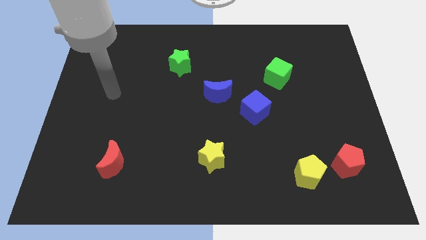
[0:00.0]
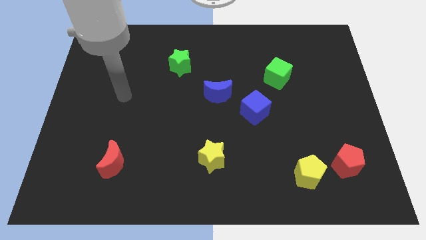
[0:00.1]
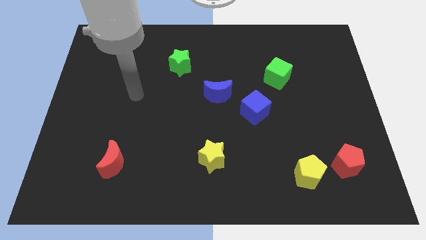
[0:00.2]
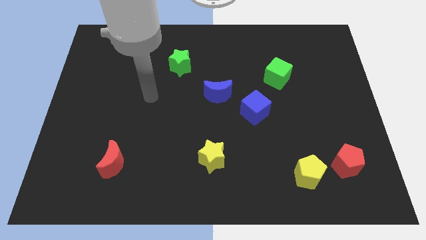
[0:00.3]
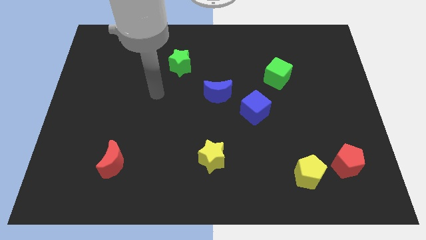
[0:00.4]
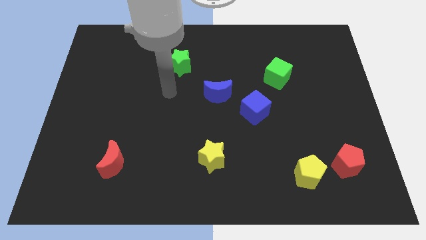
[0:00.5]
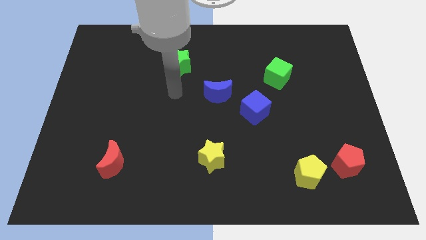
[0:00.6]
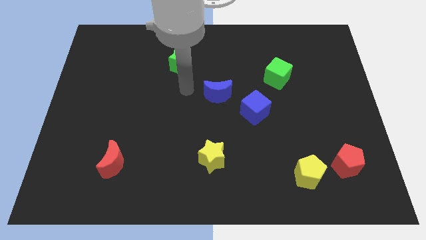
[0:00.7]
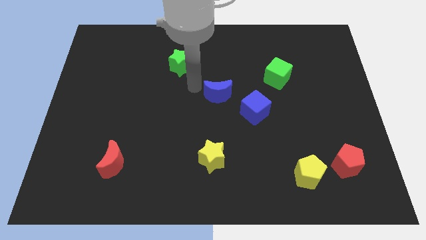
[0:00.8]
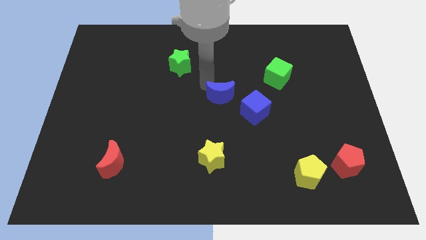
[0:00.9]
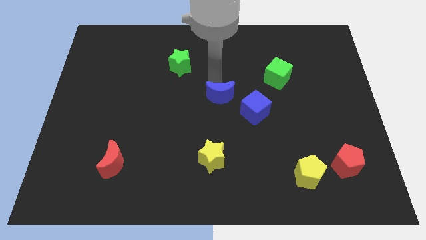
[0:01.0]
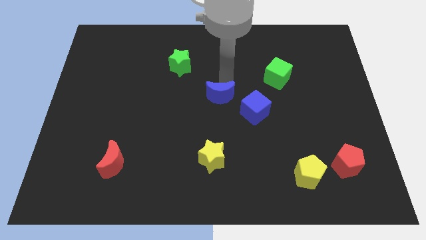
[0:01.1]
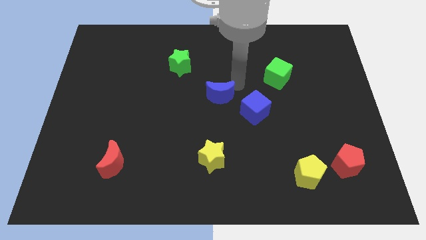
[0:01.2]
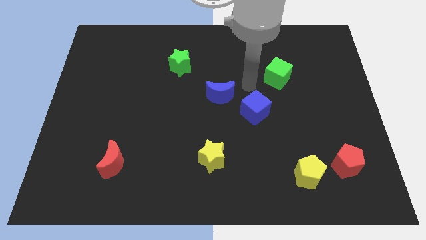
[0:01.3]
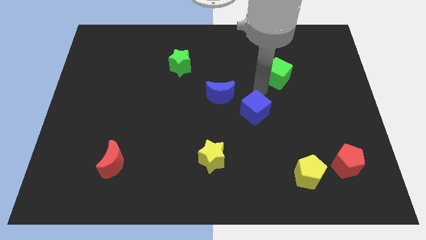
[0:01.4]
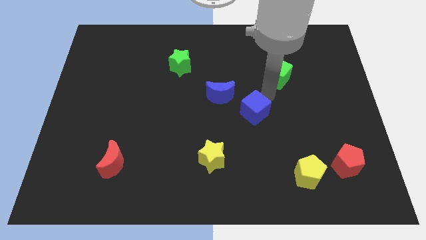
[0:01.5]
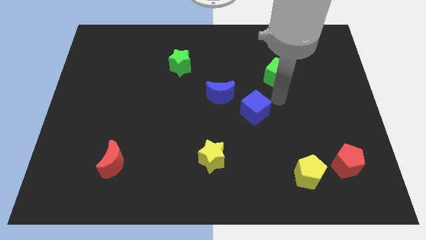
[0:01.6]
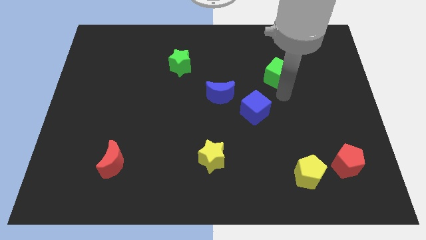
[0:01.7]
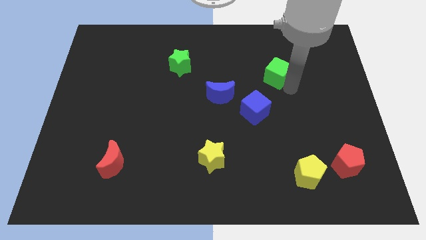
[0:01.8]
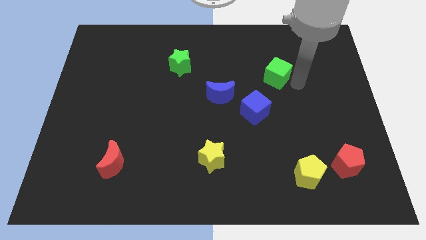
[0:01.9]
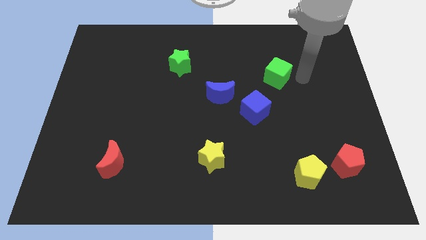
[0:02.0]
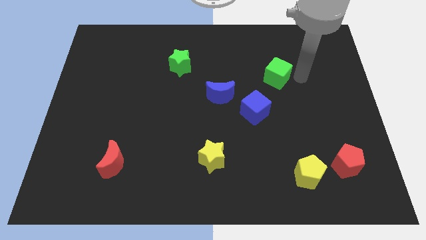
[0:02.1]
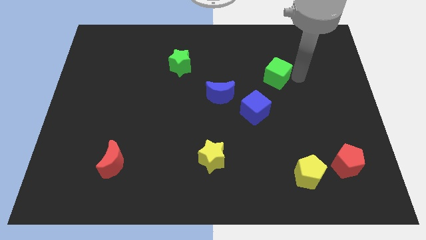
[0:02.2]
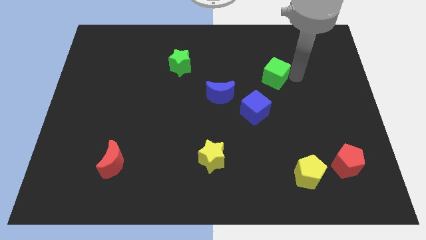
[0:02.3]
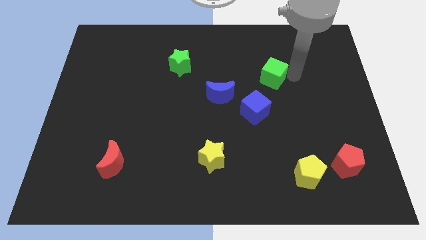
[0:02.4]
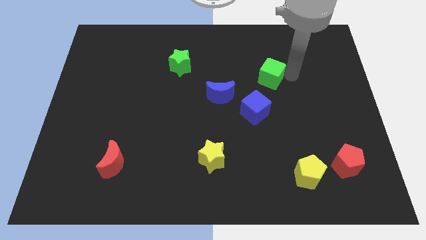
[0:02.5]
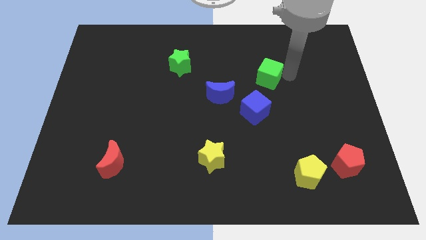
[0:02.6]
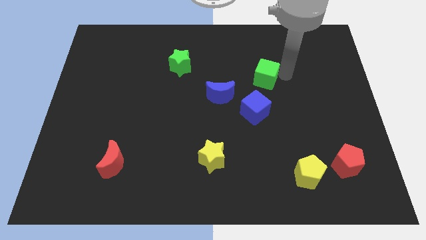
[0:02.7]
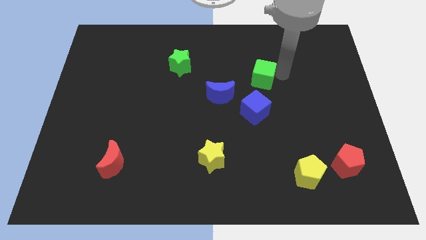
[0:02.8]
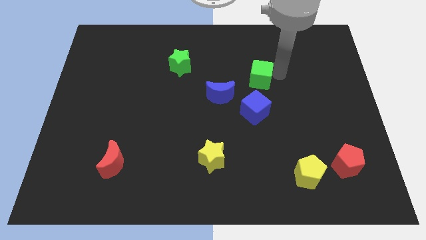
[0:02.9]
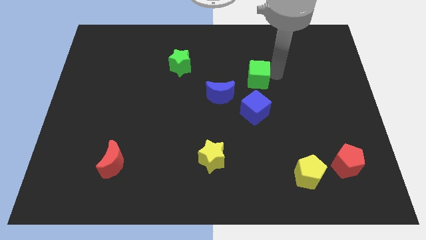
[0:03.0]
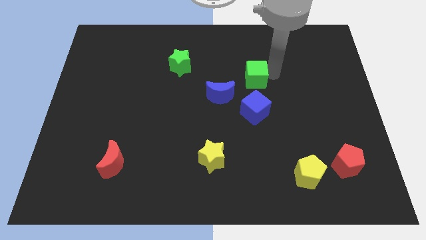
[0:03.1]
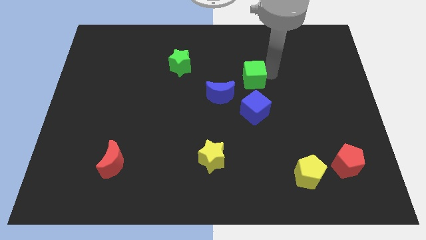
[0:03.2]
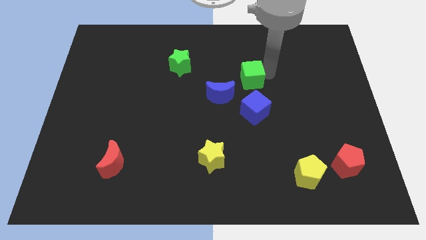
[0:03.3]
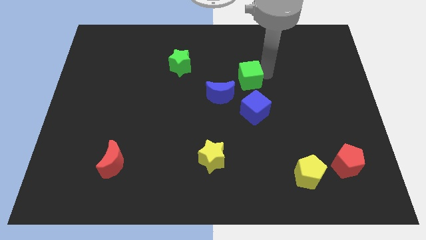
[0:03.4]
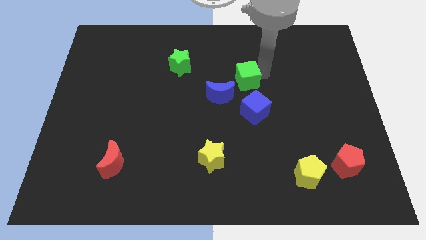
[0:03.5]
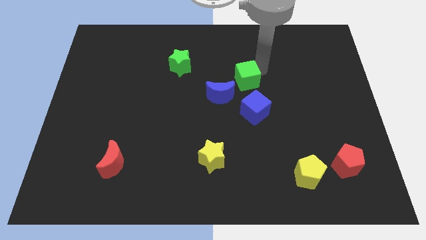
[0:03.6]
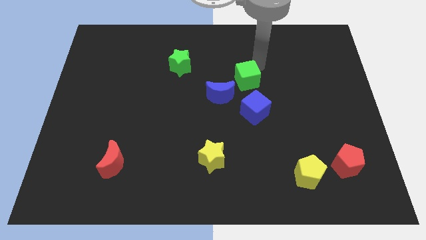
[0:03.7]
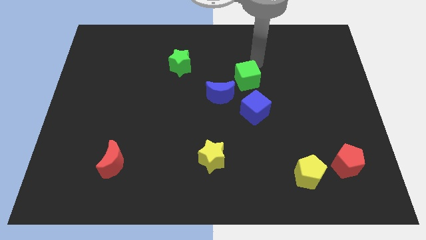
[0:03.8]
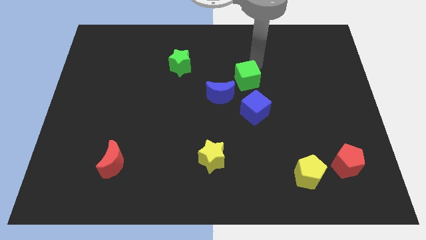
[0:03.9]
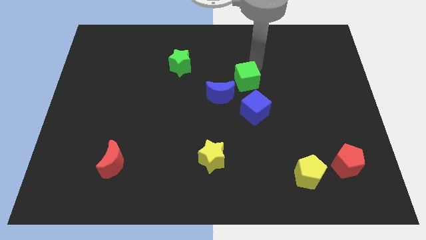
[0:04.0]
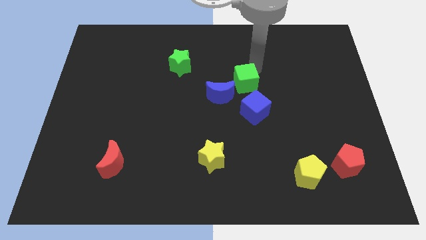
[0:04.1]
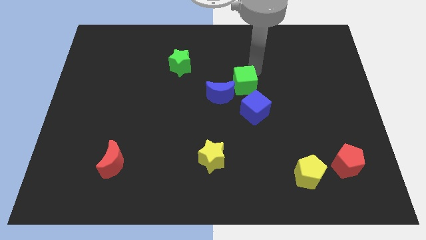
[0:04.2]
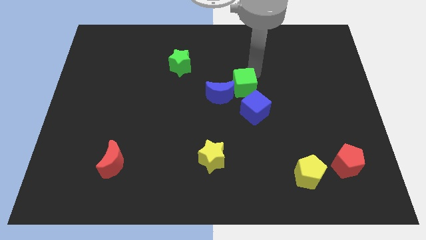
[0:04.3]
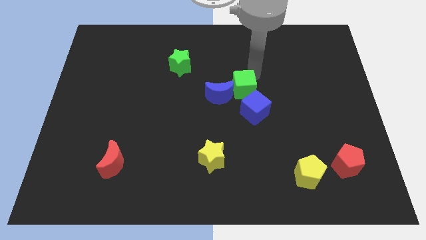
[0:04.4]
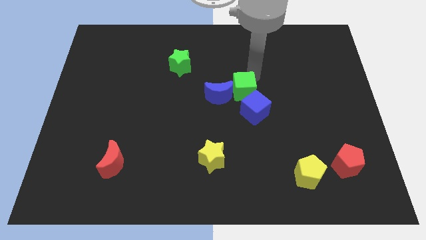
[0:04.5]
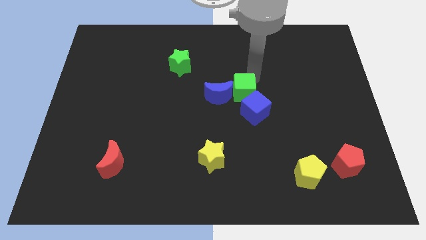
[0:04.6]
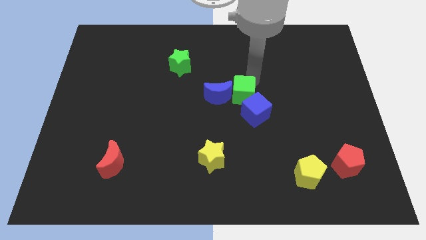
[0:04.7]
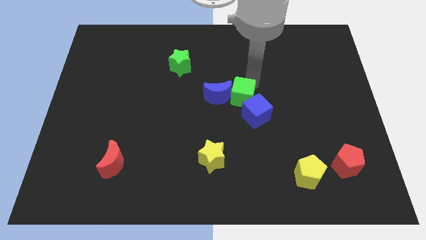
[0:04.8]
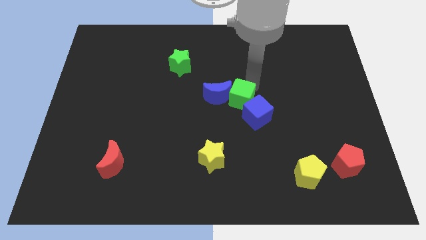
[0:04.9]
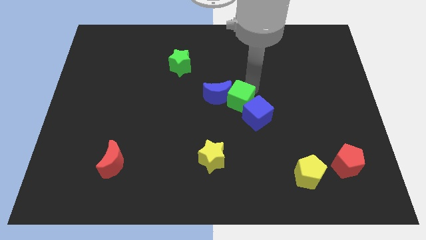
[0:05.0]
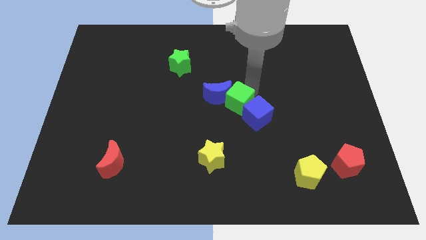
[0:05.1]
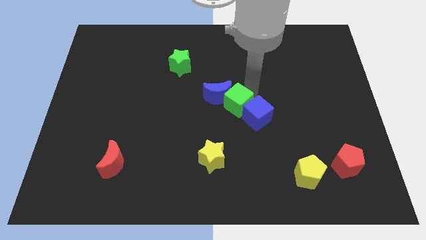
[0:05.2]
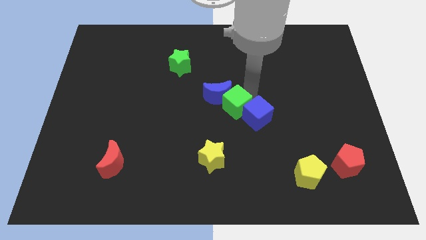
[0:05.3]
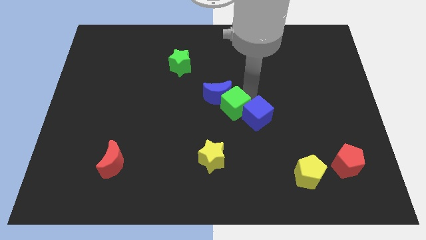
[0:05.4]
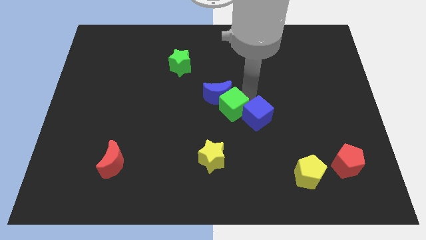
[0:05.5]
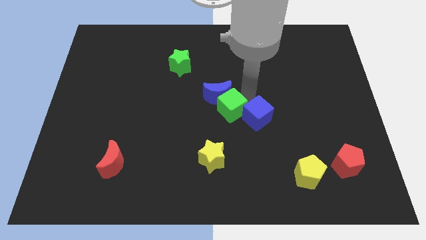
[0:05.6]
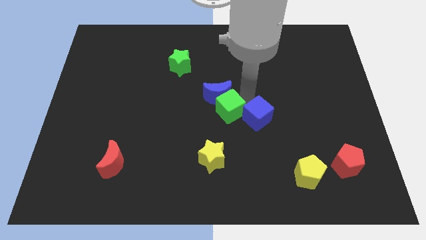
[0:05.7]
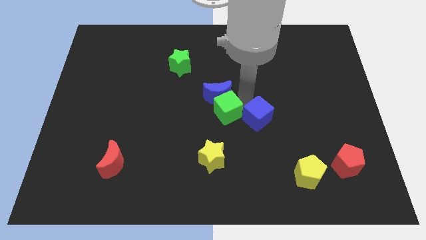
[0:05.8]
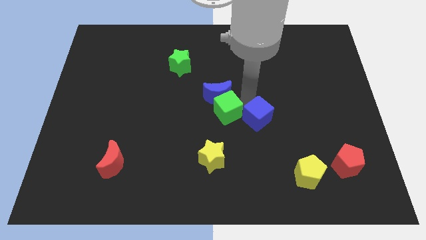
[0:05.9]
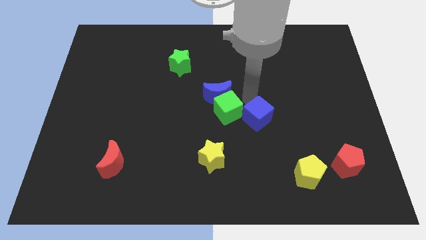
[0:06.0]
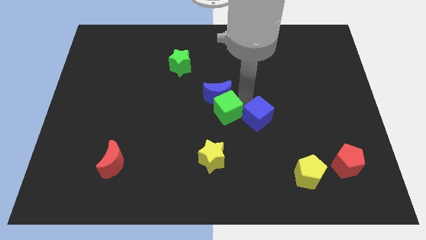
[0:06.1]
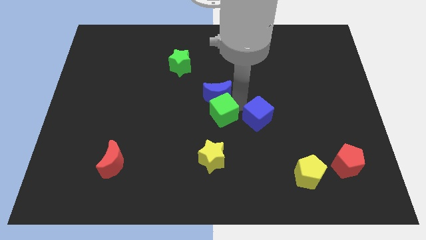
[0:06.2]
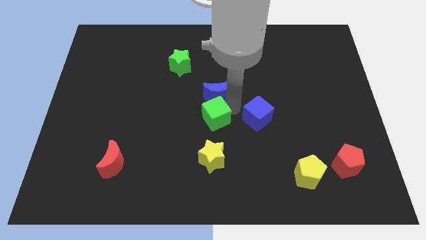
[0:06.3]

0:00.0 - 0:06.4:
push the green cube down and then to the left

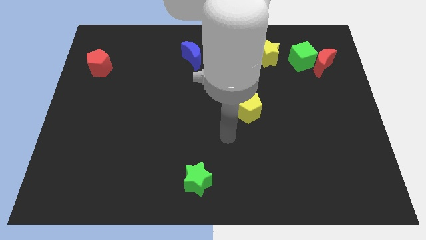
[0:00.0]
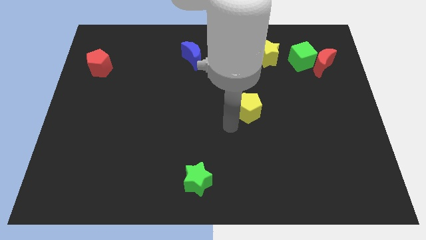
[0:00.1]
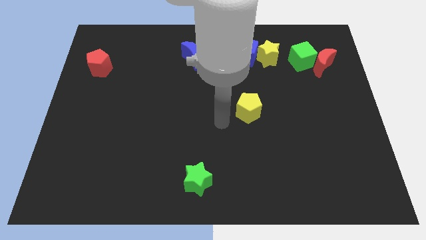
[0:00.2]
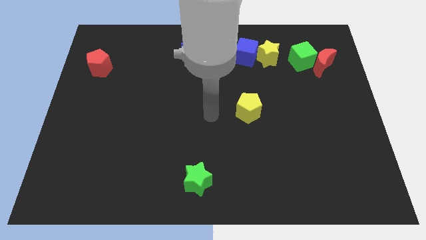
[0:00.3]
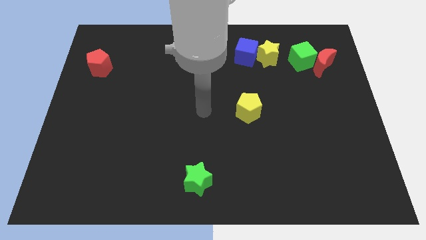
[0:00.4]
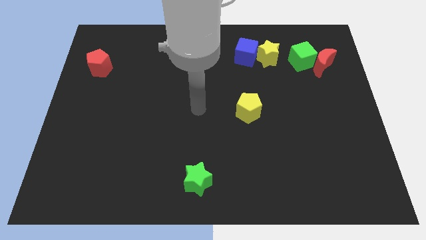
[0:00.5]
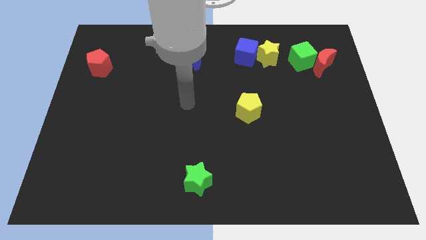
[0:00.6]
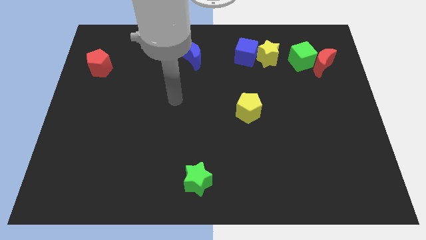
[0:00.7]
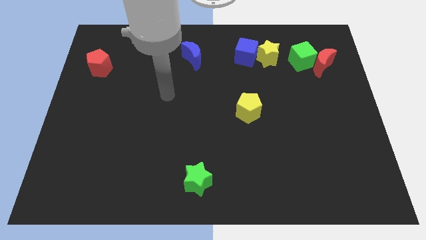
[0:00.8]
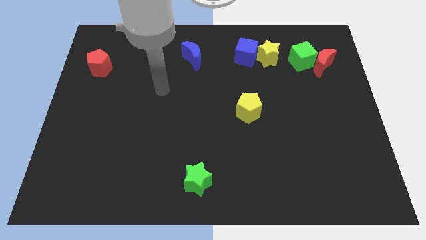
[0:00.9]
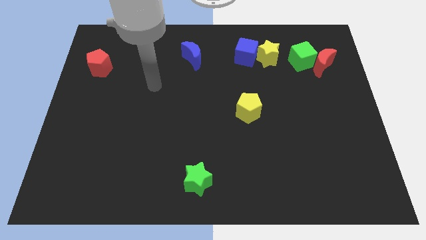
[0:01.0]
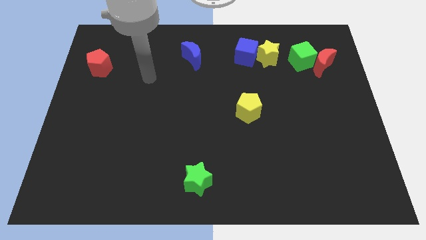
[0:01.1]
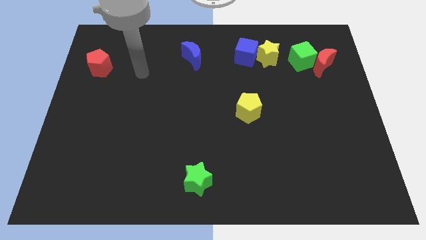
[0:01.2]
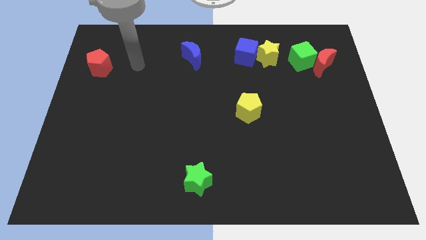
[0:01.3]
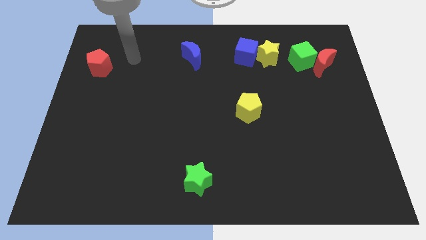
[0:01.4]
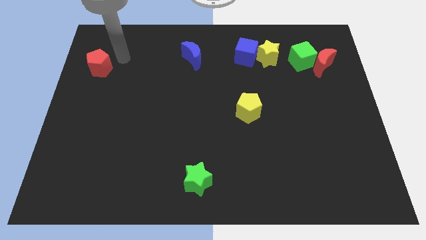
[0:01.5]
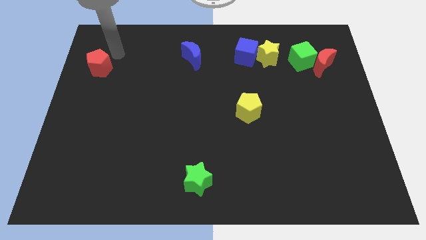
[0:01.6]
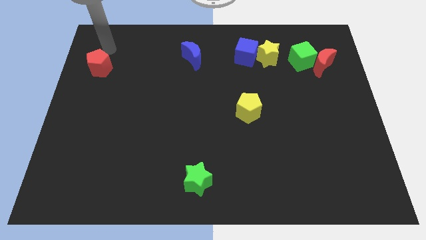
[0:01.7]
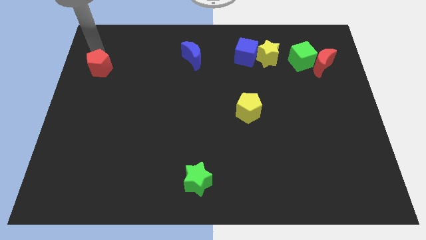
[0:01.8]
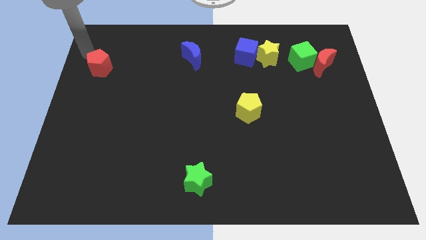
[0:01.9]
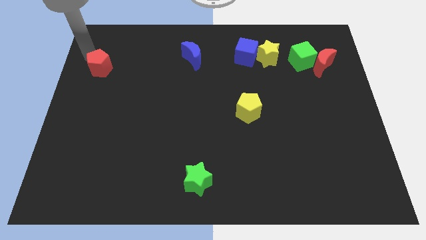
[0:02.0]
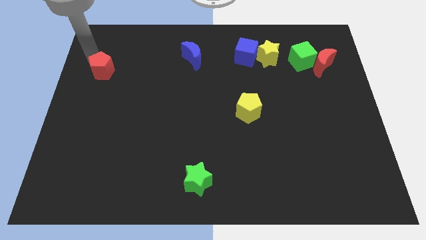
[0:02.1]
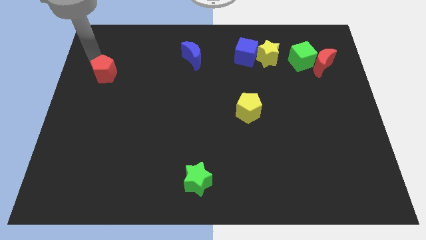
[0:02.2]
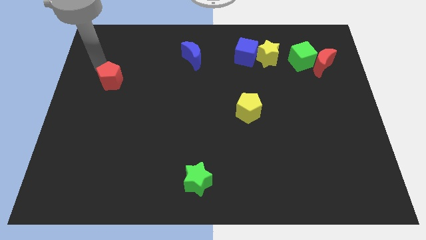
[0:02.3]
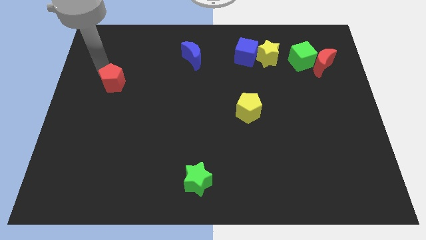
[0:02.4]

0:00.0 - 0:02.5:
move the red pentagon a bit downwards and then right
